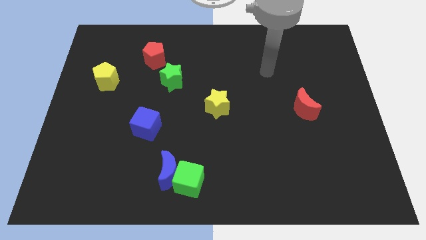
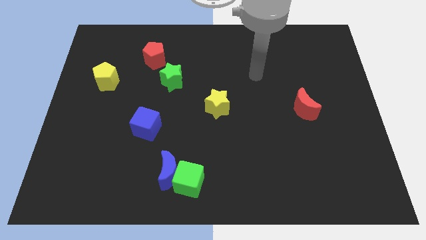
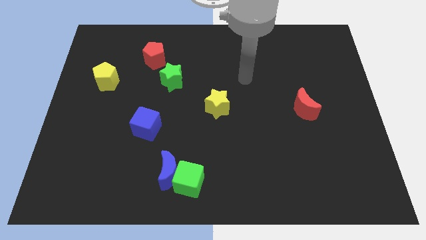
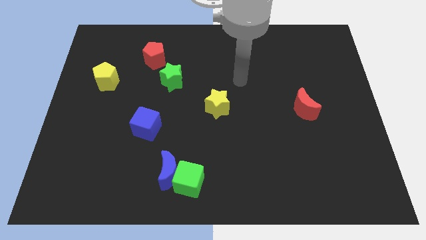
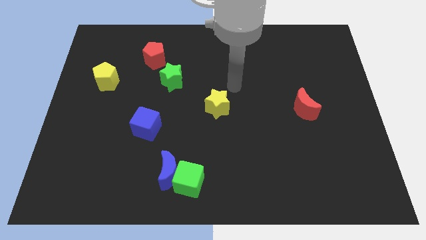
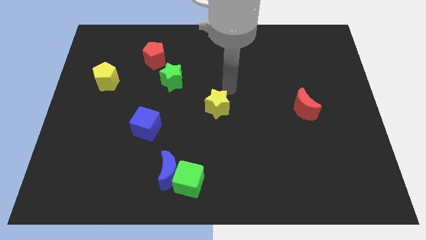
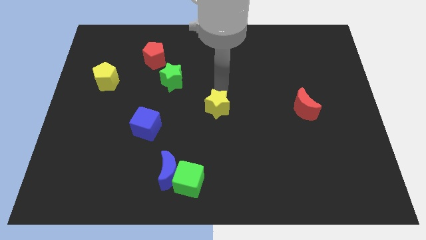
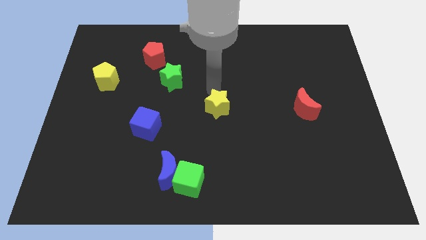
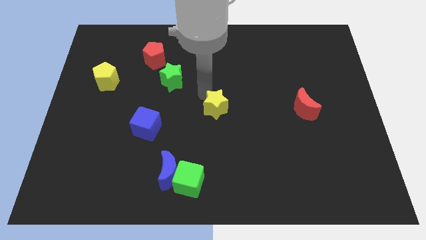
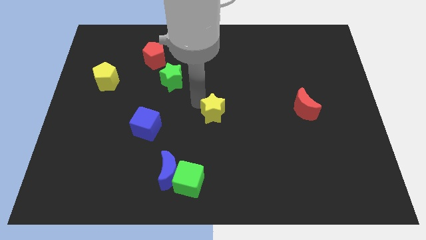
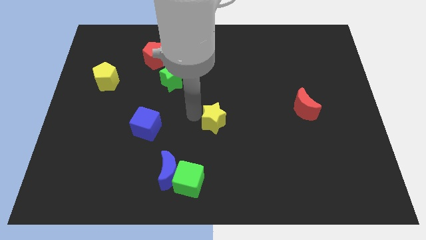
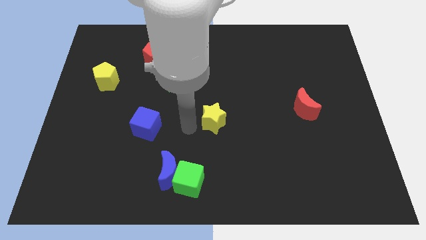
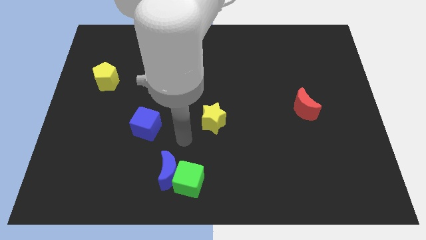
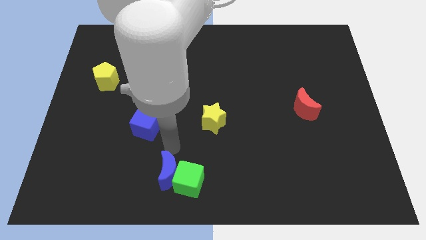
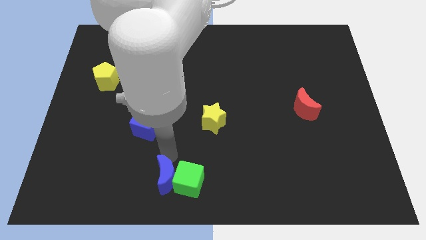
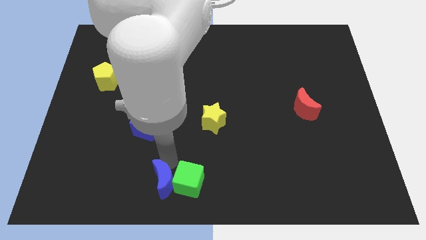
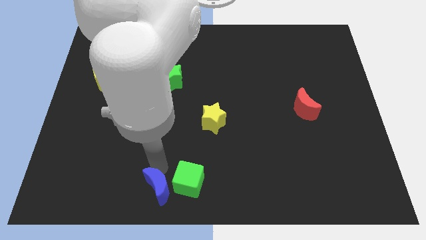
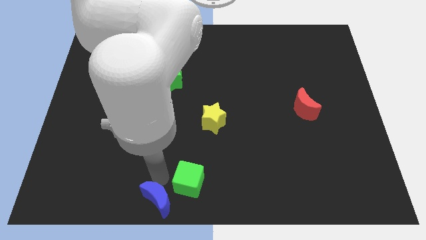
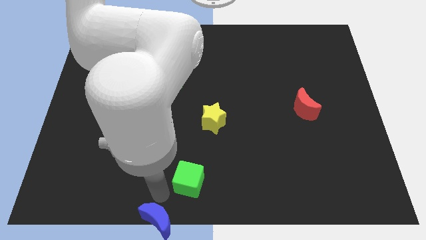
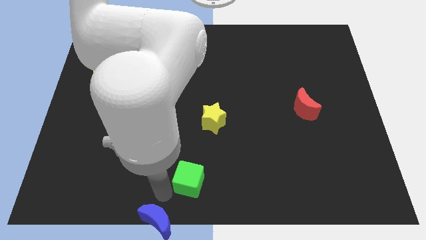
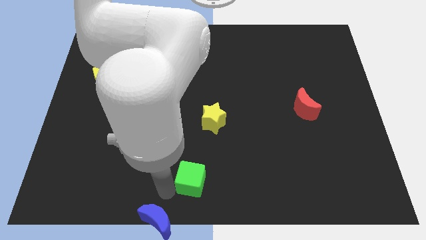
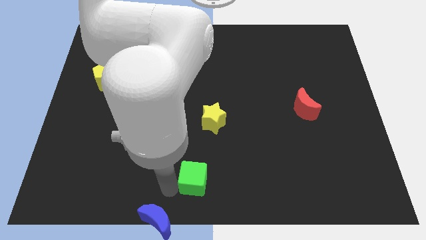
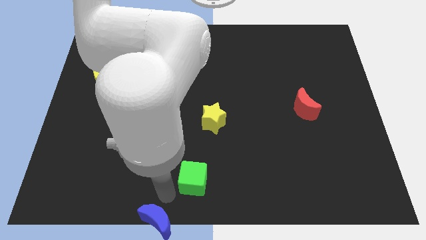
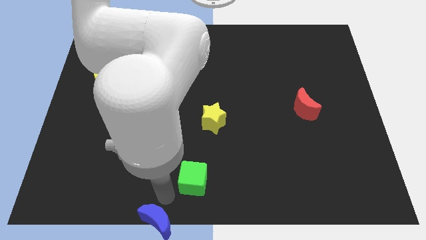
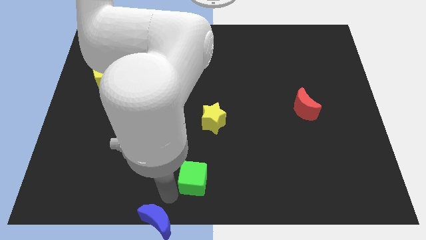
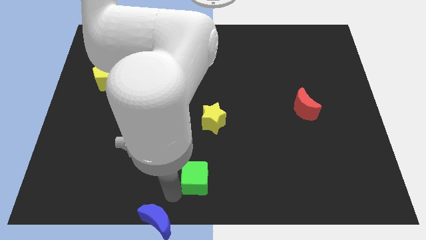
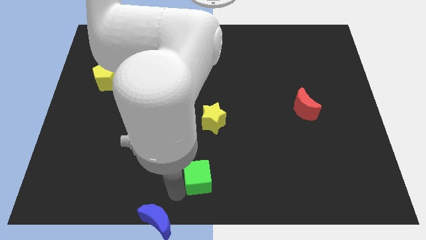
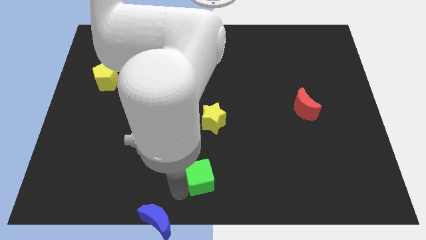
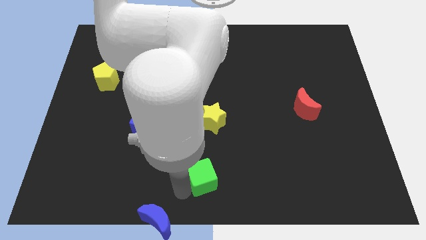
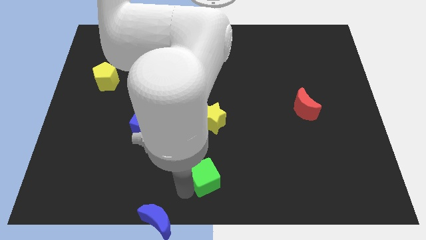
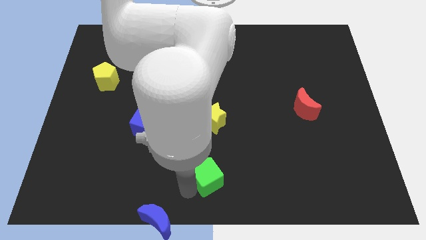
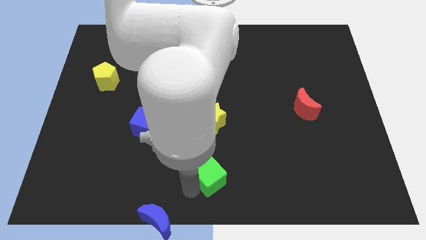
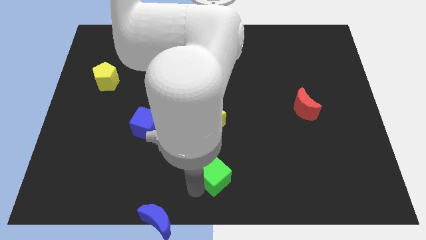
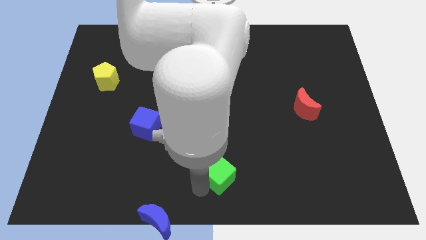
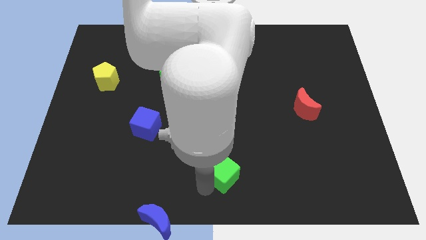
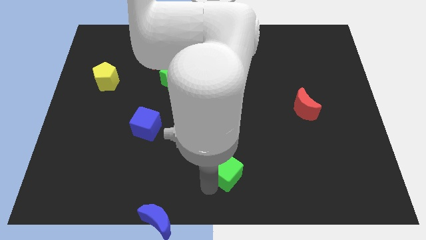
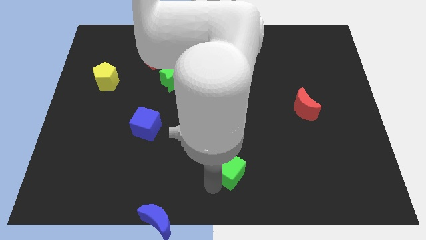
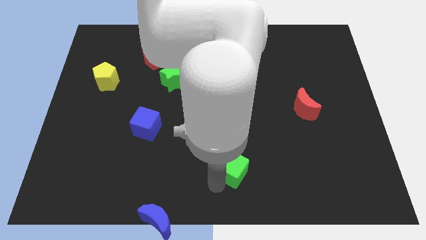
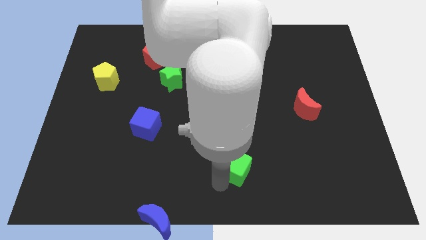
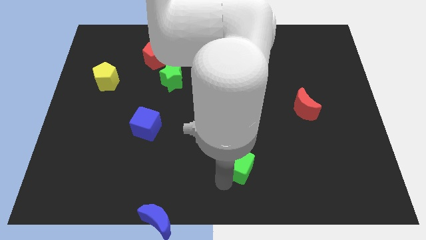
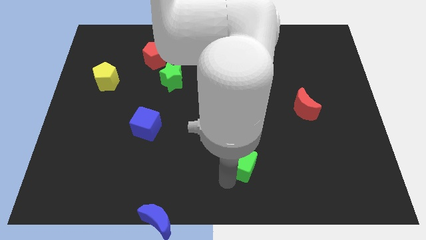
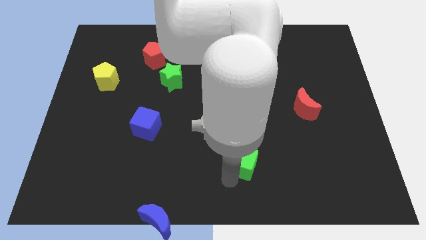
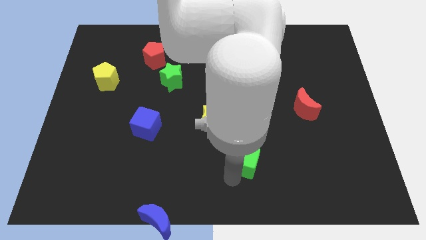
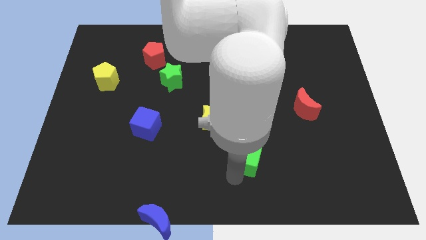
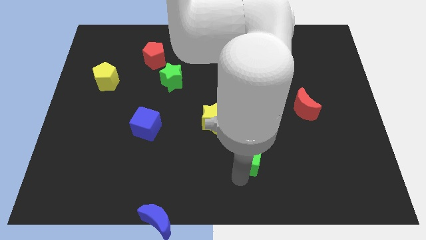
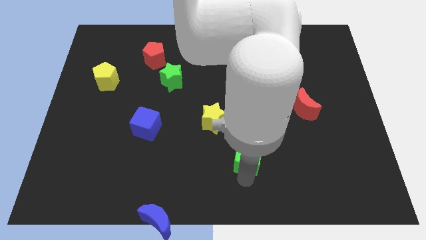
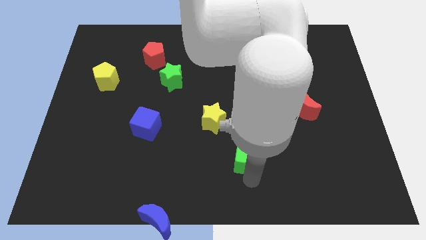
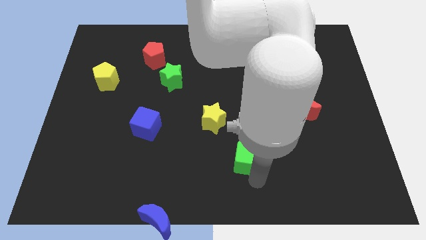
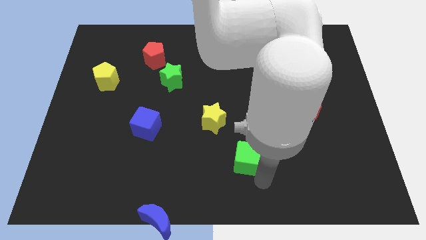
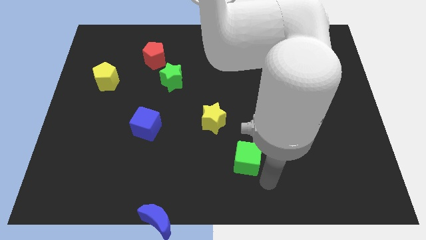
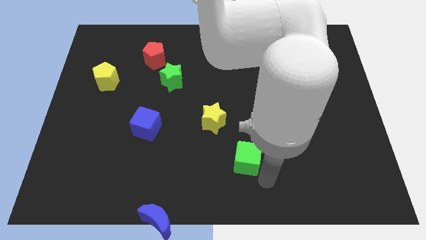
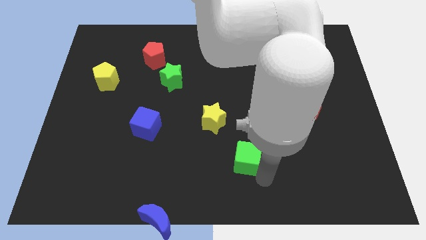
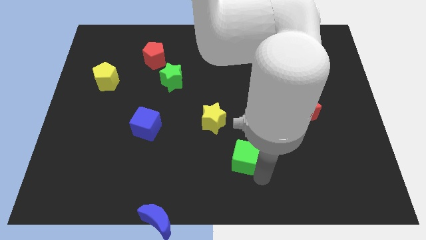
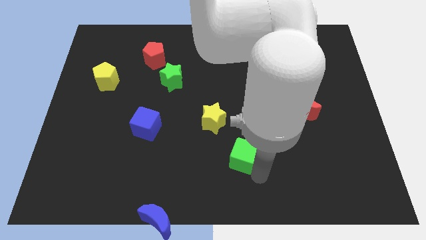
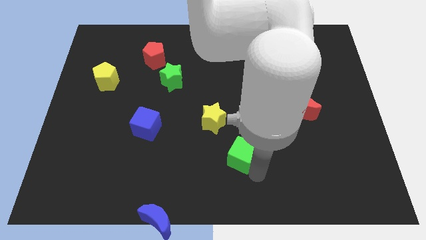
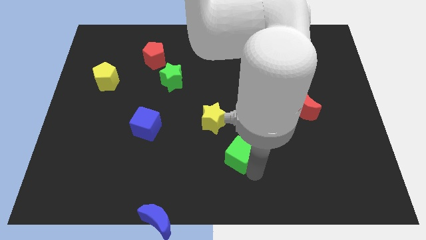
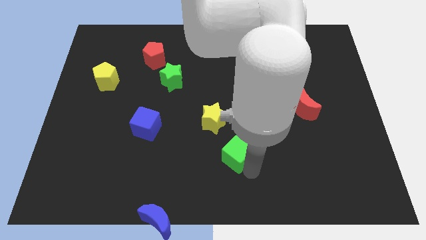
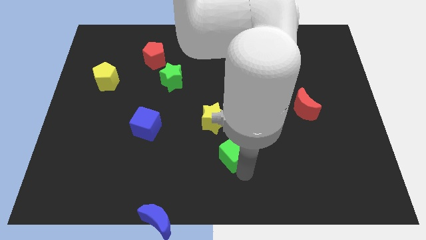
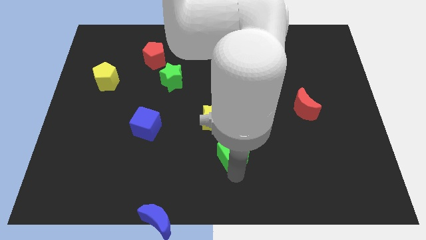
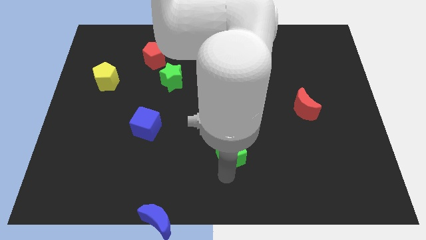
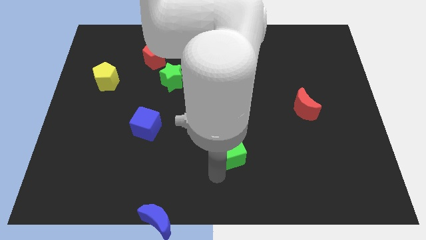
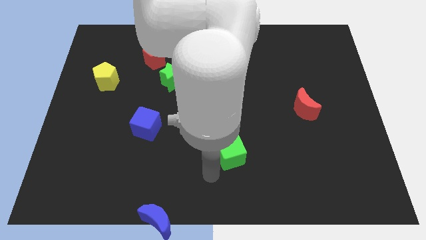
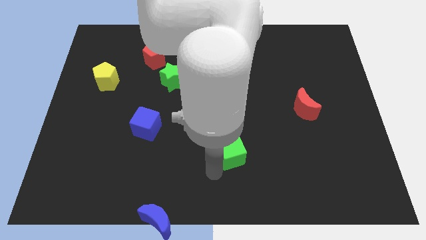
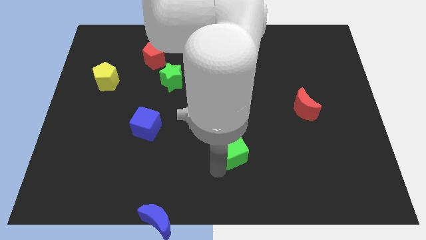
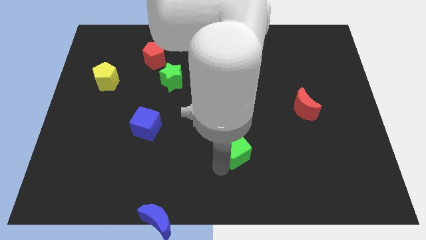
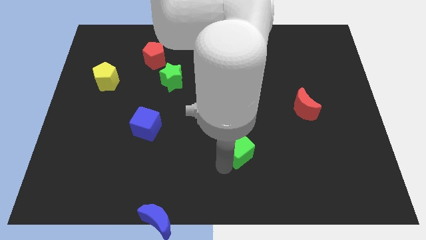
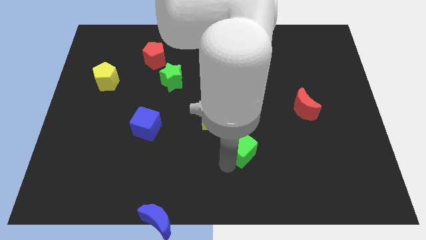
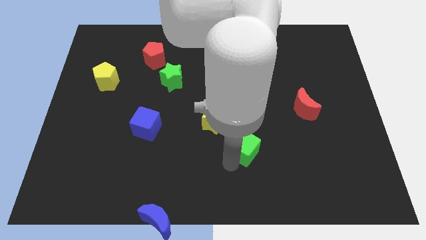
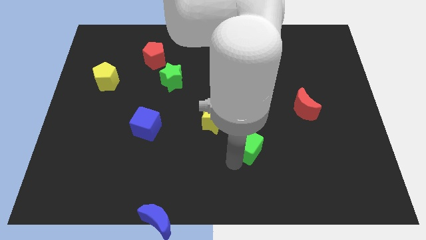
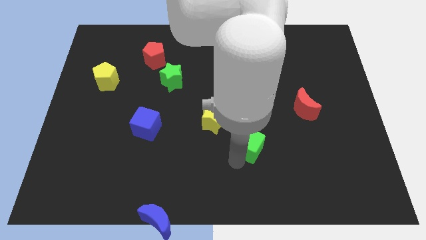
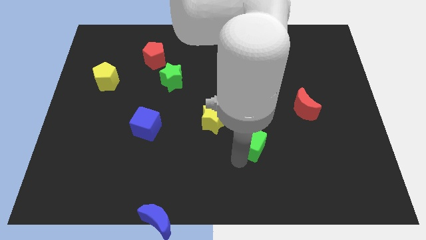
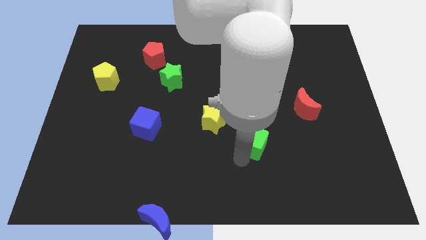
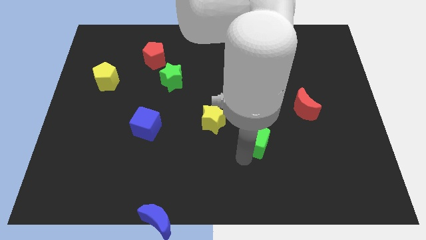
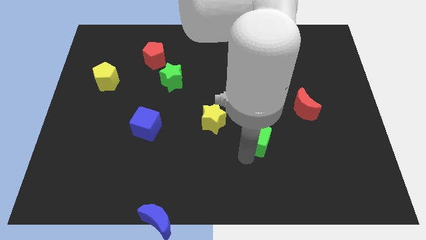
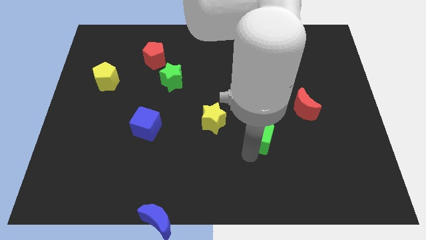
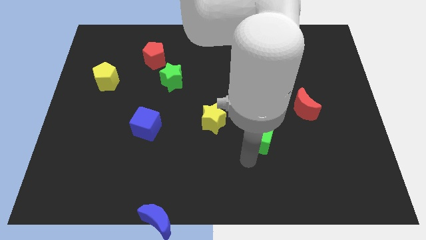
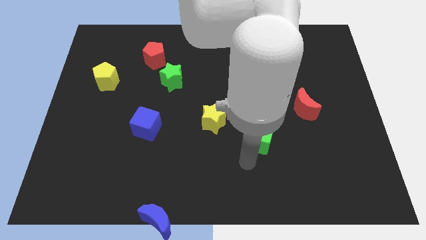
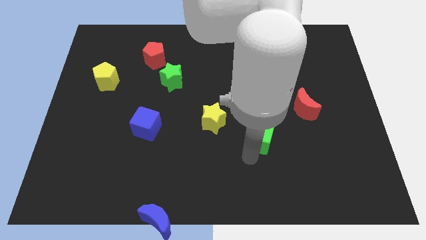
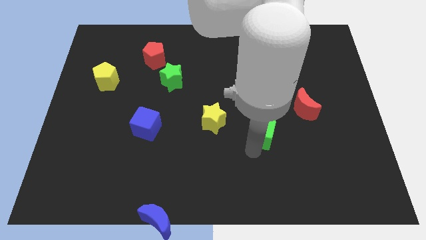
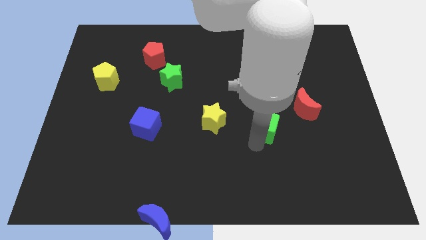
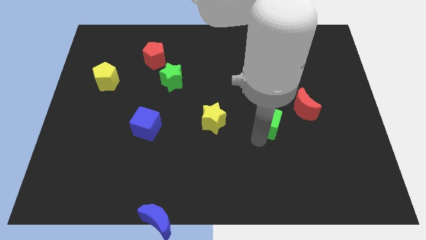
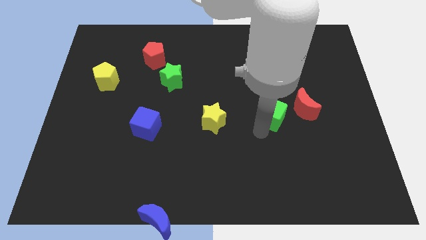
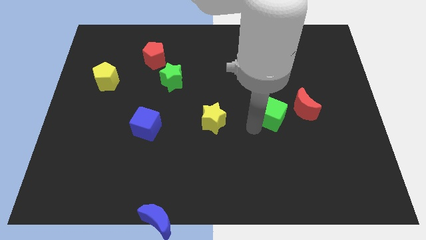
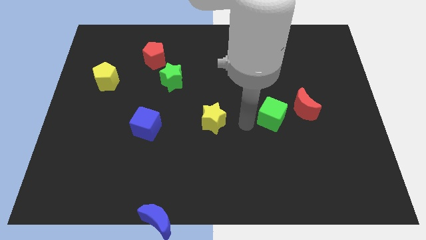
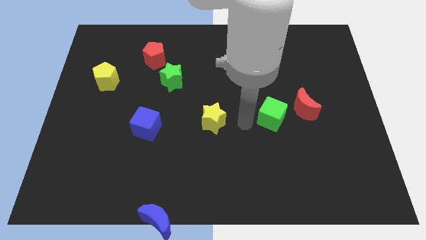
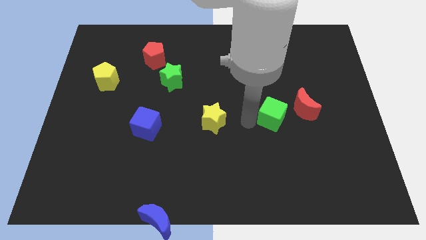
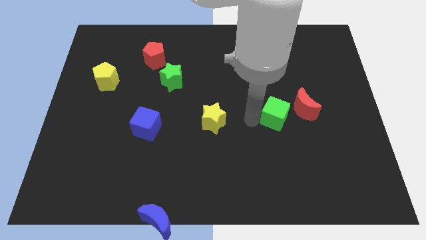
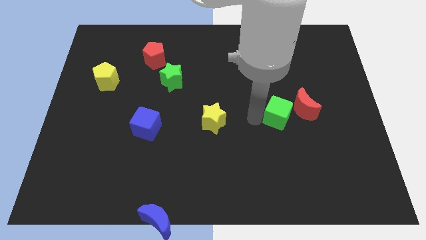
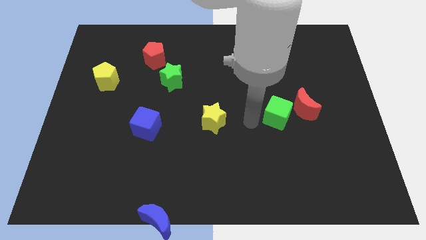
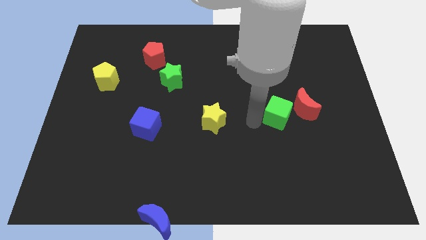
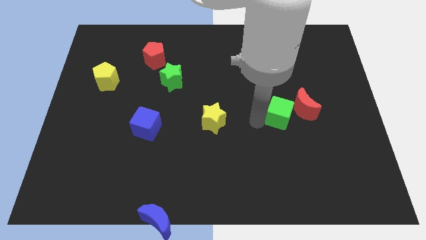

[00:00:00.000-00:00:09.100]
slide the green cube close to the red moon
